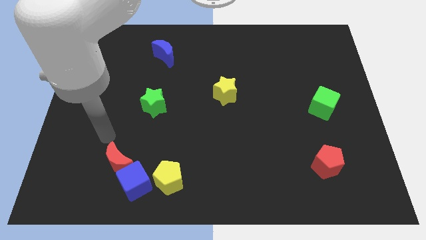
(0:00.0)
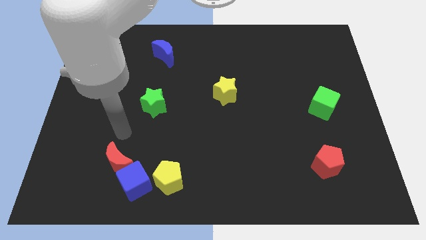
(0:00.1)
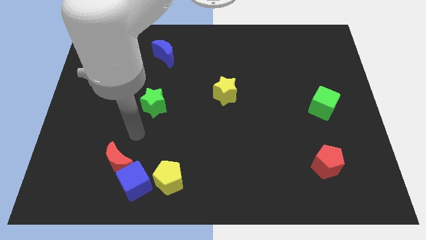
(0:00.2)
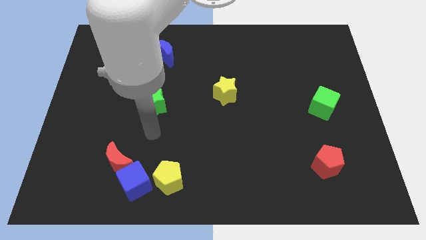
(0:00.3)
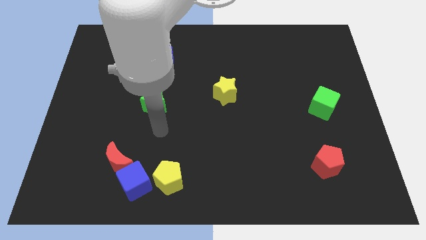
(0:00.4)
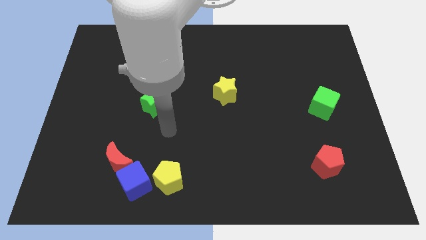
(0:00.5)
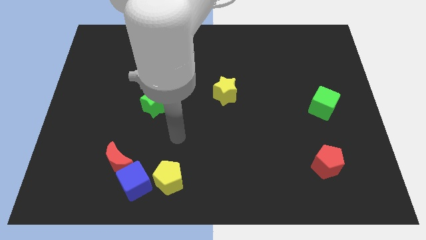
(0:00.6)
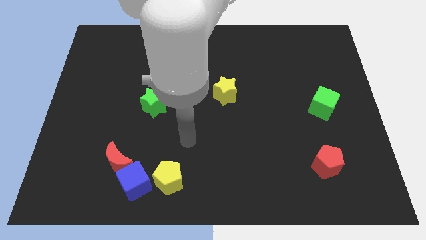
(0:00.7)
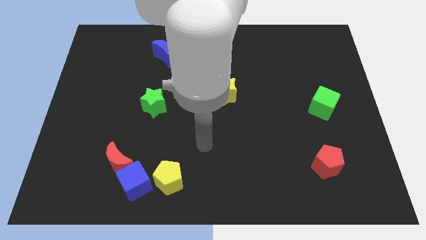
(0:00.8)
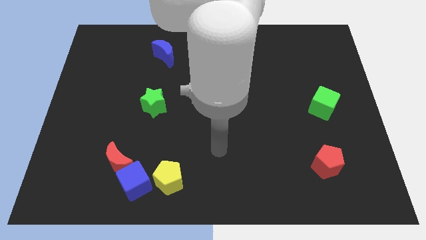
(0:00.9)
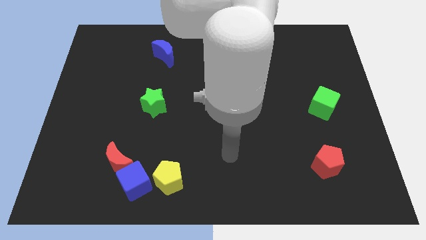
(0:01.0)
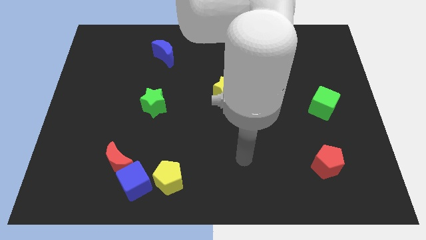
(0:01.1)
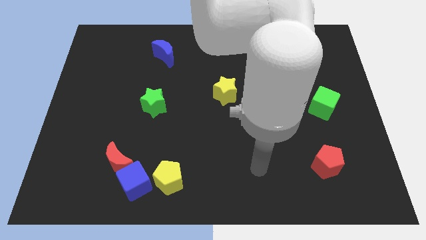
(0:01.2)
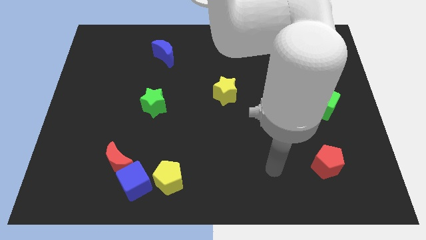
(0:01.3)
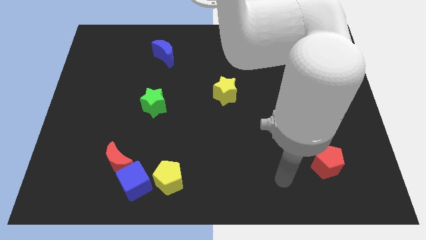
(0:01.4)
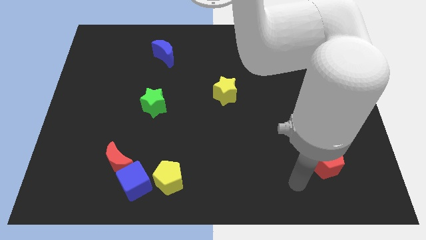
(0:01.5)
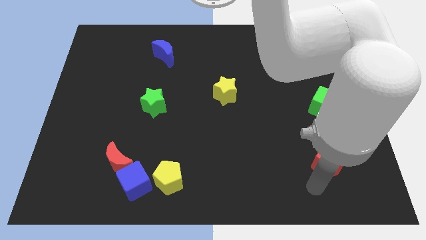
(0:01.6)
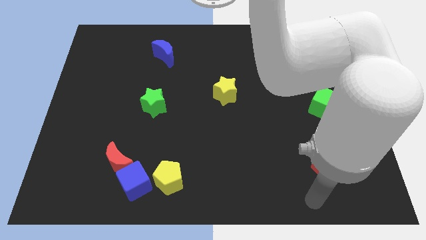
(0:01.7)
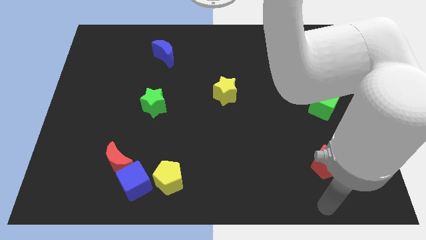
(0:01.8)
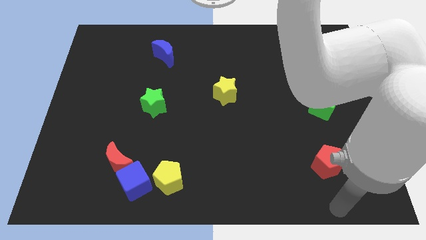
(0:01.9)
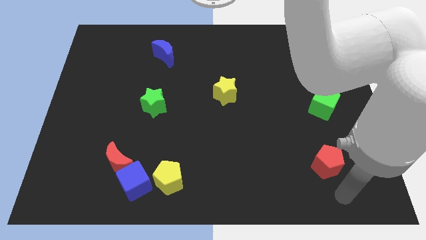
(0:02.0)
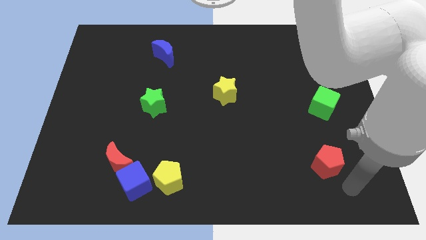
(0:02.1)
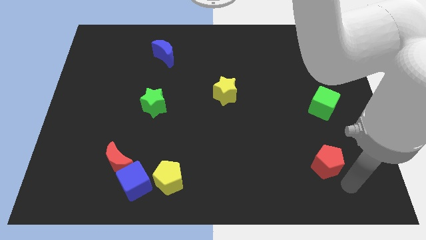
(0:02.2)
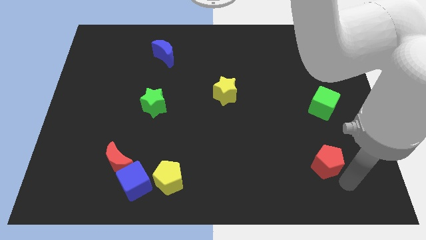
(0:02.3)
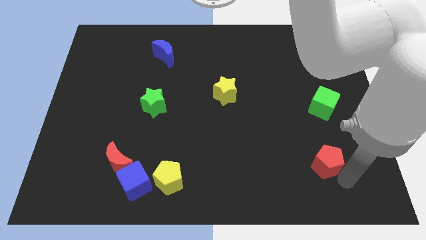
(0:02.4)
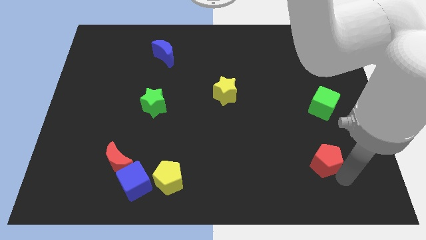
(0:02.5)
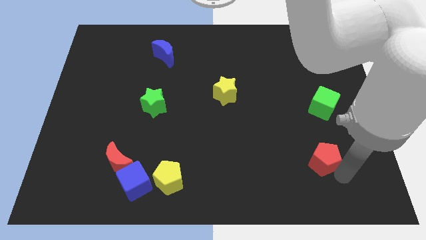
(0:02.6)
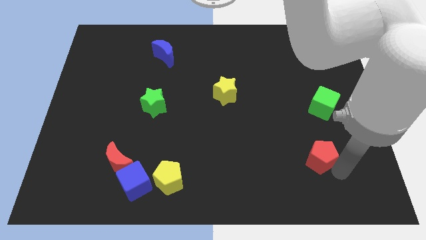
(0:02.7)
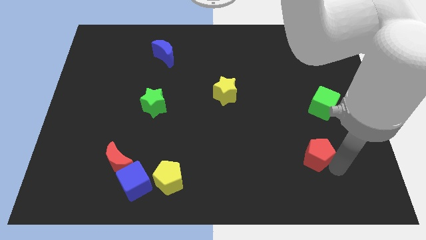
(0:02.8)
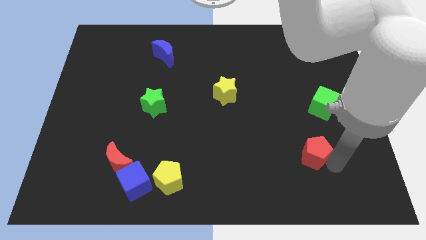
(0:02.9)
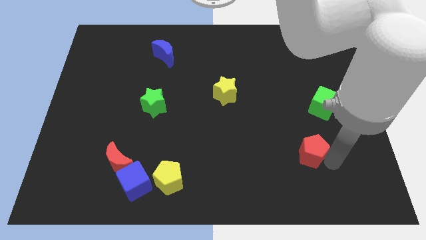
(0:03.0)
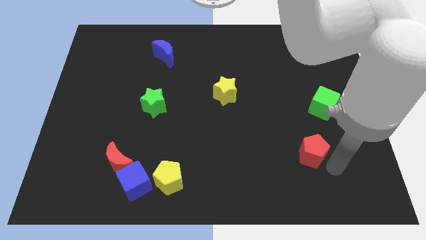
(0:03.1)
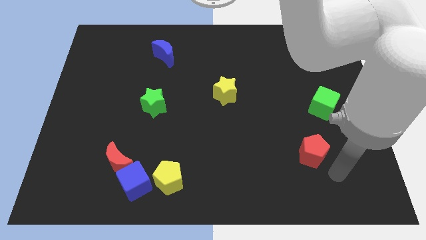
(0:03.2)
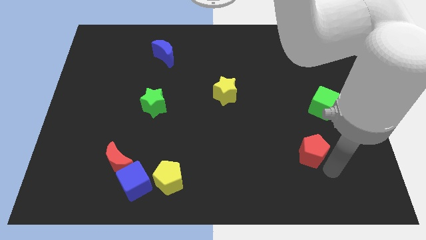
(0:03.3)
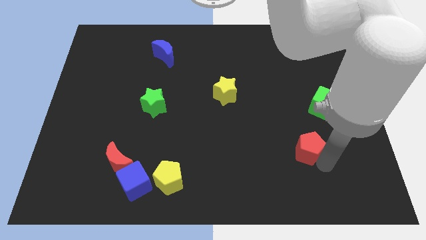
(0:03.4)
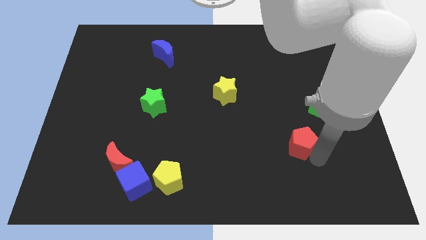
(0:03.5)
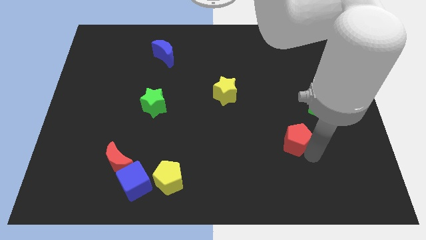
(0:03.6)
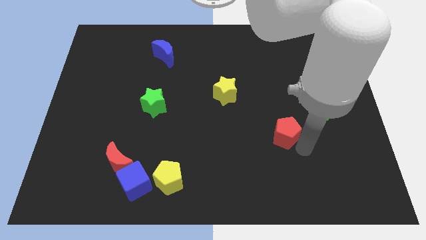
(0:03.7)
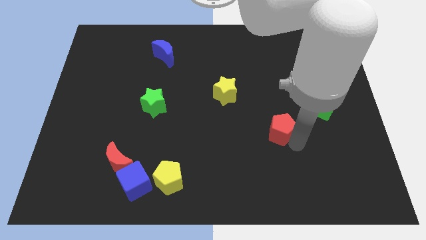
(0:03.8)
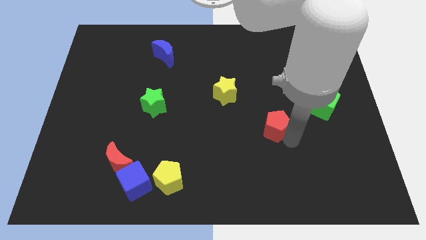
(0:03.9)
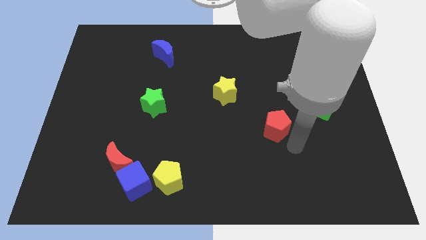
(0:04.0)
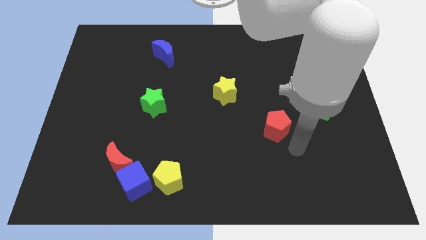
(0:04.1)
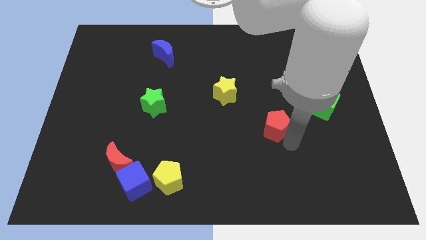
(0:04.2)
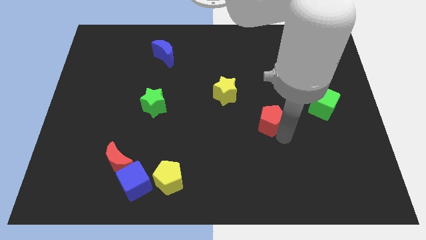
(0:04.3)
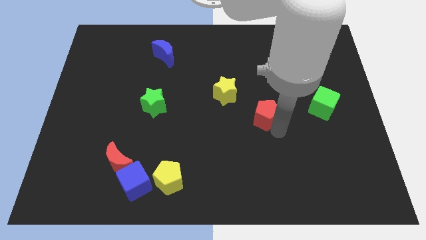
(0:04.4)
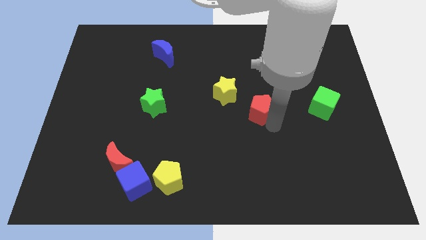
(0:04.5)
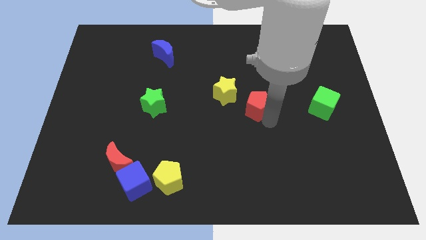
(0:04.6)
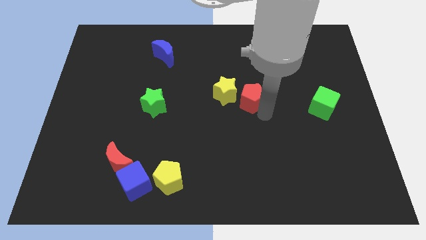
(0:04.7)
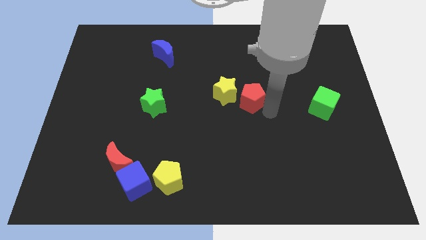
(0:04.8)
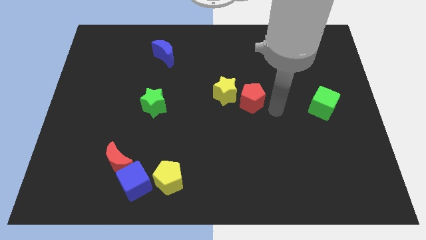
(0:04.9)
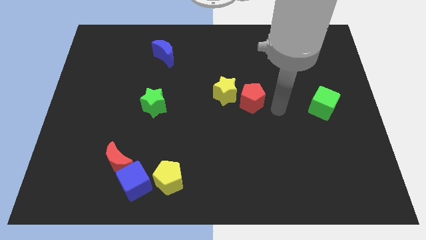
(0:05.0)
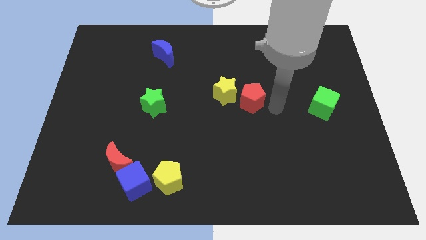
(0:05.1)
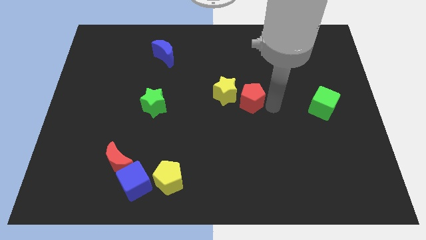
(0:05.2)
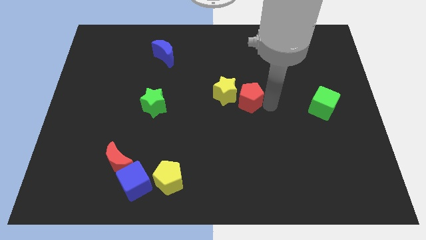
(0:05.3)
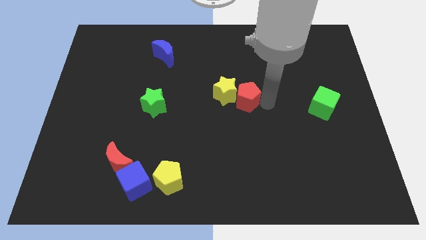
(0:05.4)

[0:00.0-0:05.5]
move the red pentagon close to the yellow star
